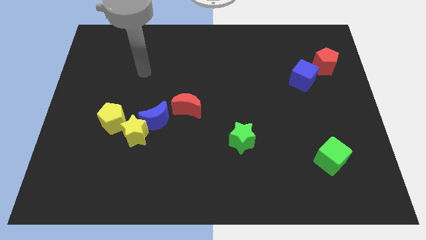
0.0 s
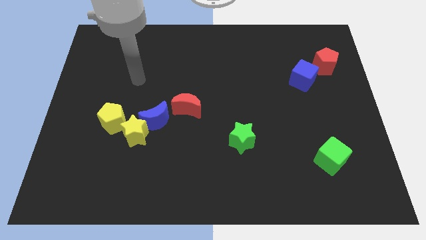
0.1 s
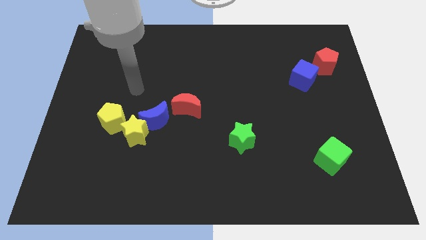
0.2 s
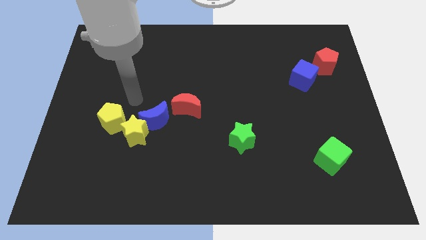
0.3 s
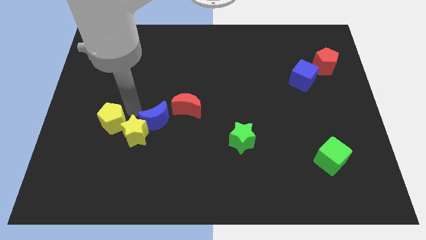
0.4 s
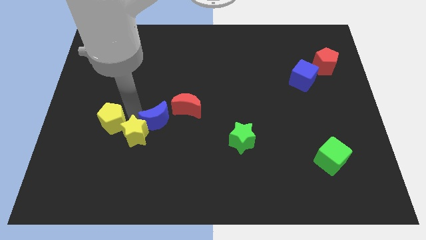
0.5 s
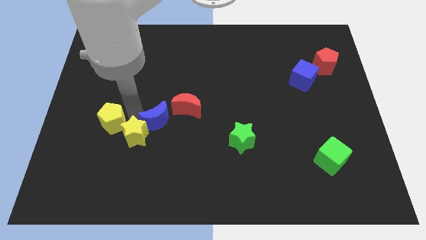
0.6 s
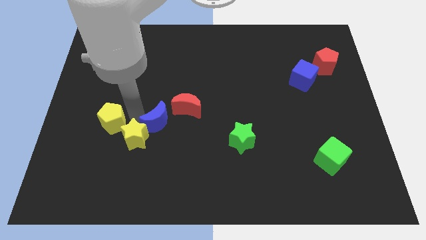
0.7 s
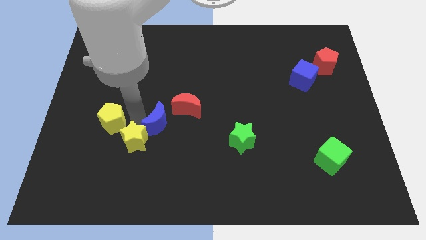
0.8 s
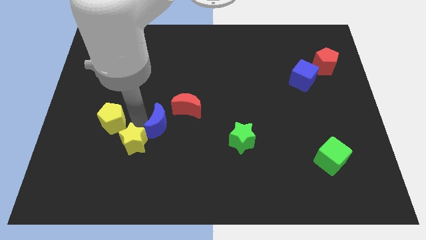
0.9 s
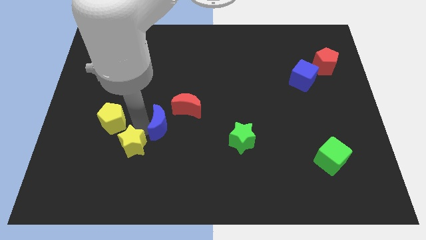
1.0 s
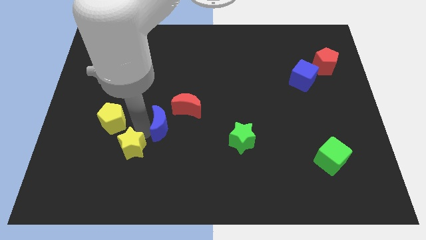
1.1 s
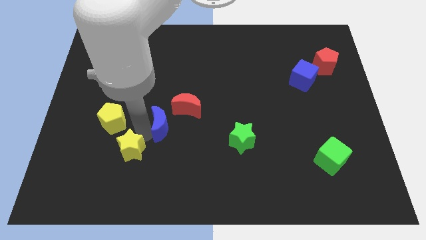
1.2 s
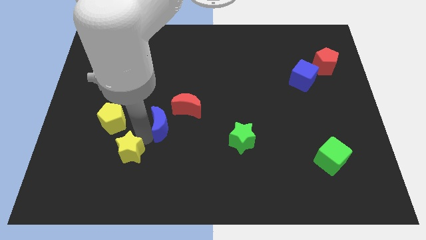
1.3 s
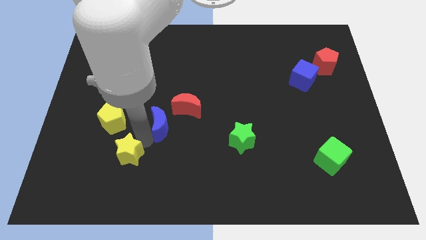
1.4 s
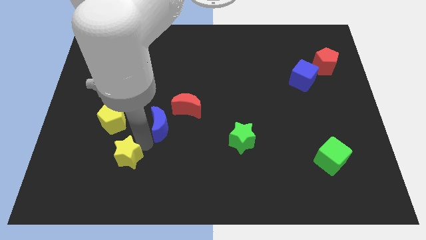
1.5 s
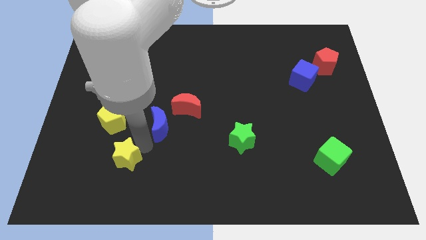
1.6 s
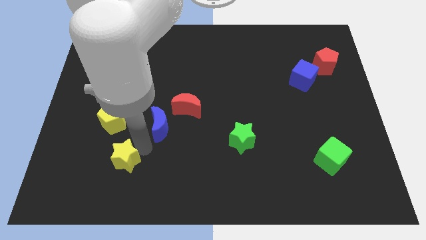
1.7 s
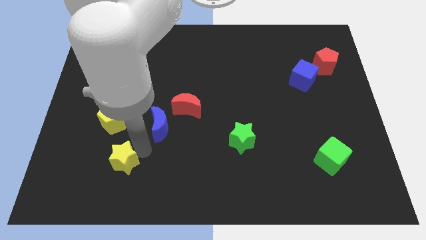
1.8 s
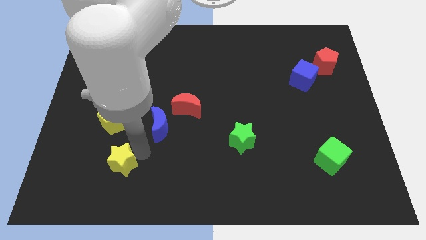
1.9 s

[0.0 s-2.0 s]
move the yellow star away from the blue moon and yellow pentagon

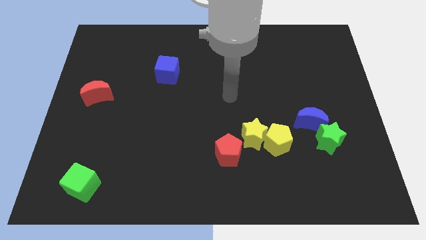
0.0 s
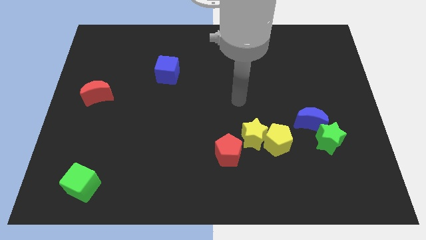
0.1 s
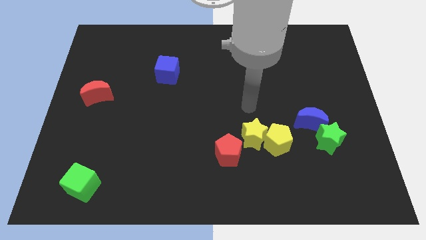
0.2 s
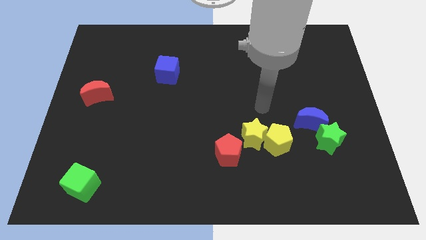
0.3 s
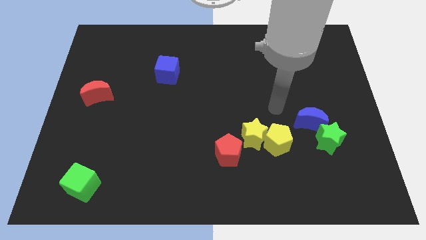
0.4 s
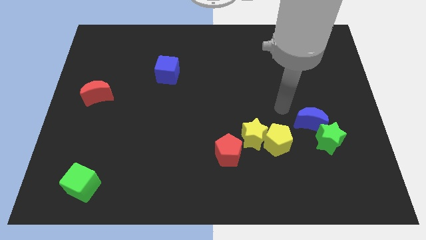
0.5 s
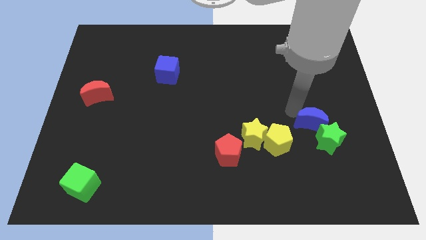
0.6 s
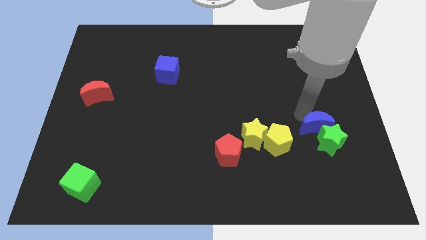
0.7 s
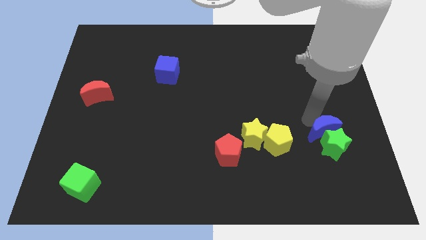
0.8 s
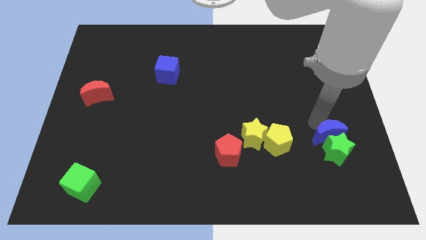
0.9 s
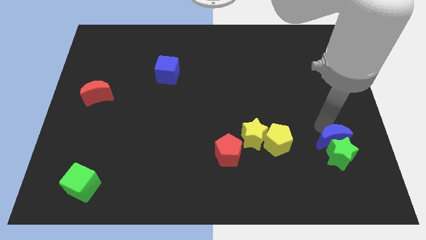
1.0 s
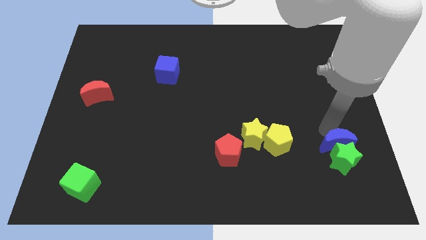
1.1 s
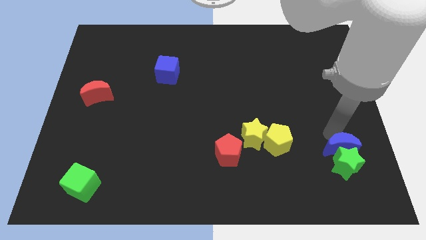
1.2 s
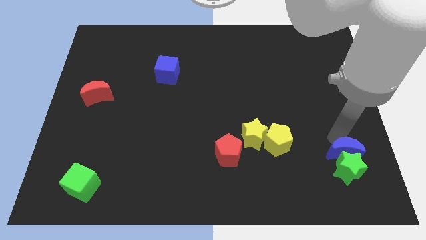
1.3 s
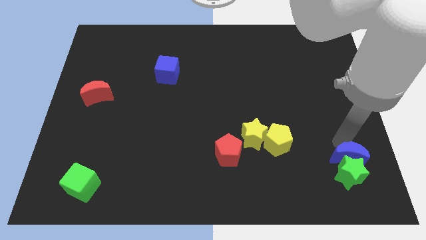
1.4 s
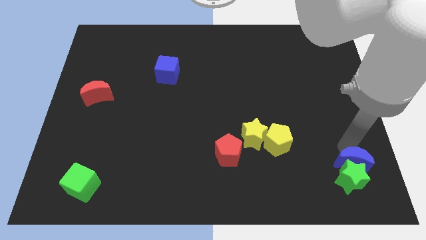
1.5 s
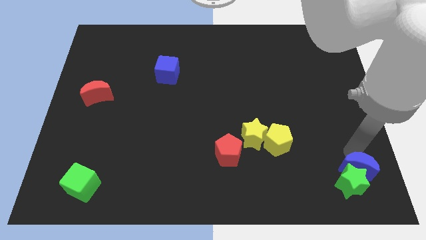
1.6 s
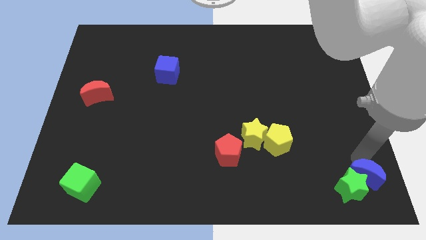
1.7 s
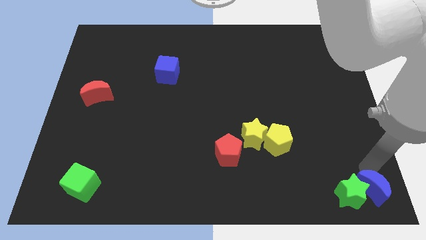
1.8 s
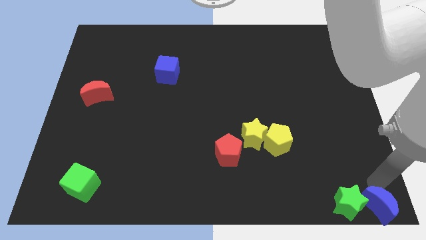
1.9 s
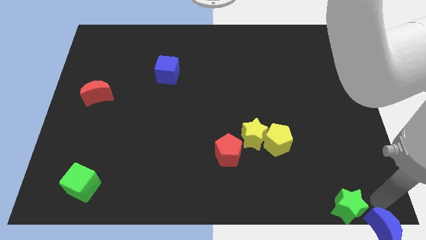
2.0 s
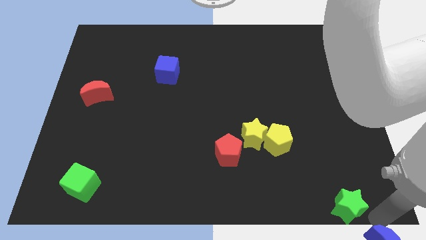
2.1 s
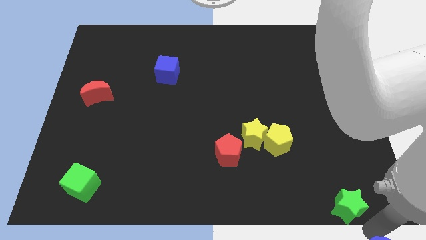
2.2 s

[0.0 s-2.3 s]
pull the green star apart from the blue moon

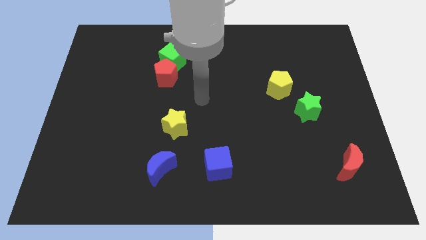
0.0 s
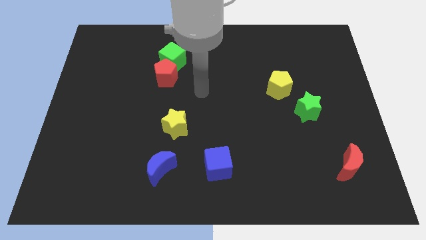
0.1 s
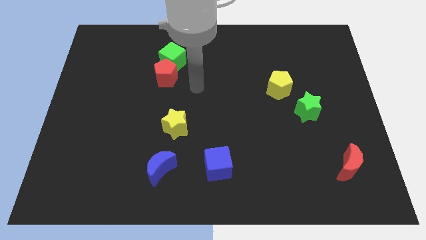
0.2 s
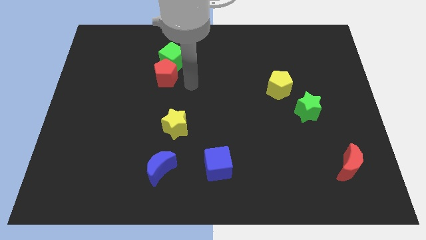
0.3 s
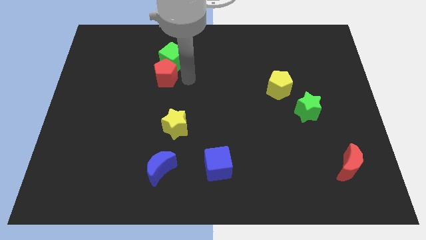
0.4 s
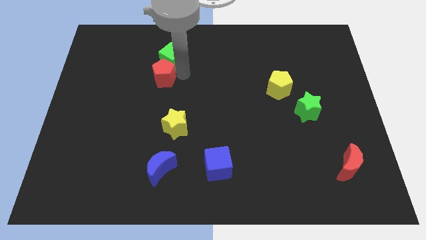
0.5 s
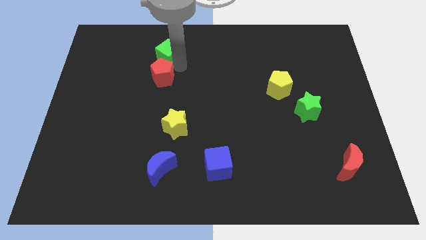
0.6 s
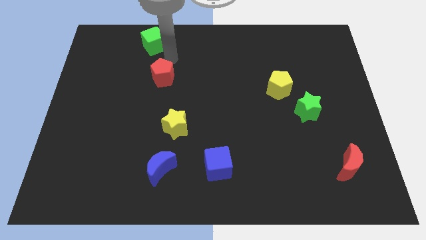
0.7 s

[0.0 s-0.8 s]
move the red pentagon away from the green cube

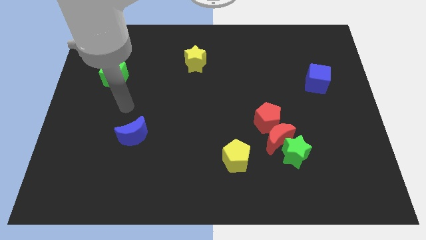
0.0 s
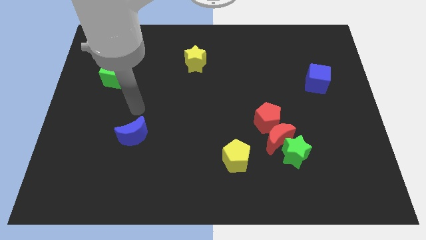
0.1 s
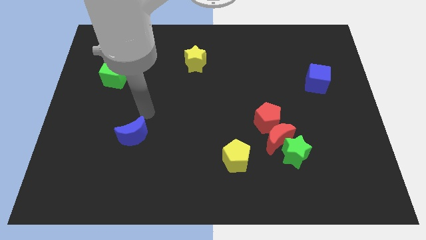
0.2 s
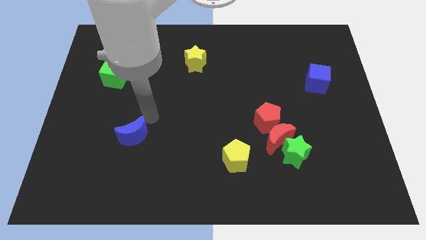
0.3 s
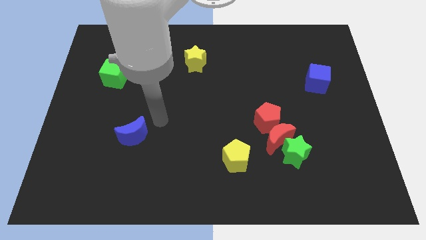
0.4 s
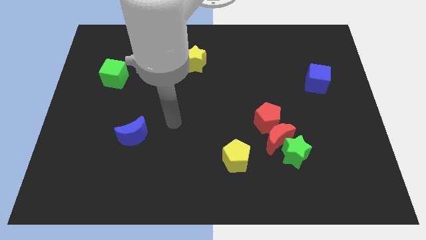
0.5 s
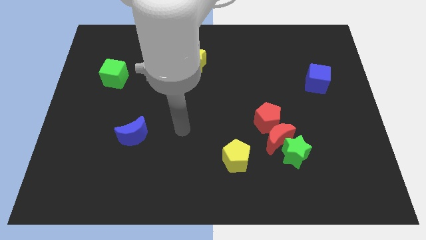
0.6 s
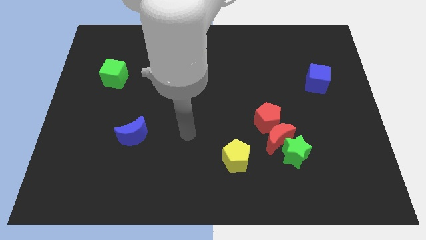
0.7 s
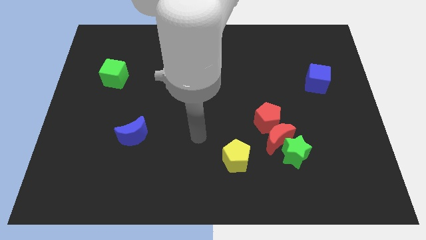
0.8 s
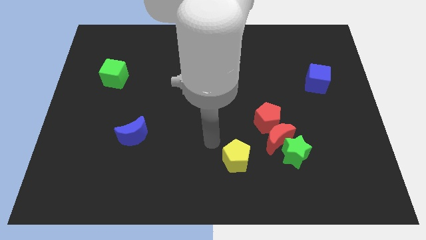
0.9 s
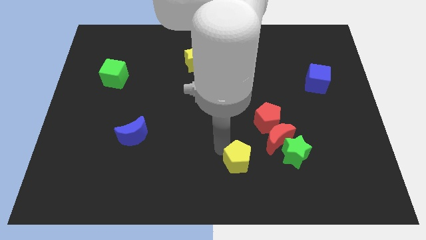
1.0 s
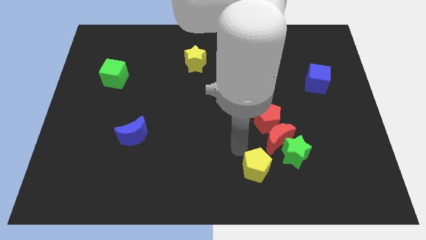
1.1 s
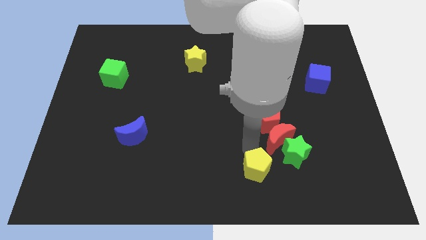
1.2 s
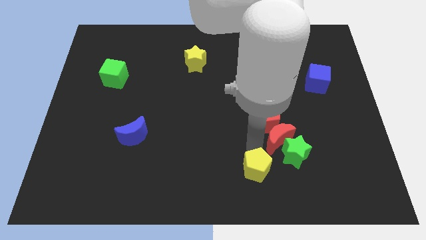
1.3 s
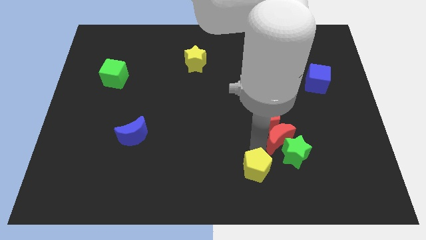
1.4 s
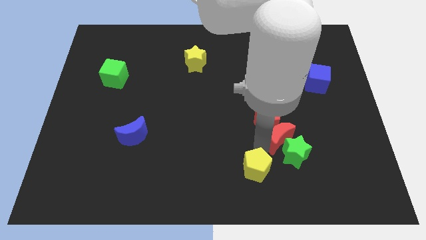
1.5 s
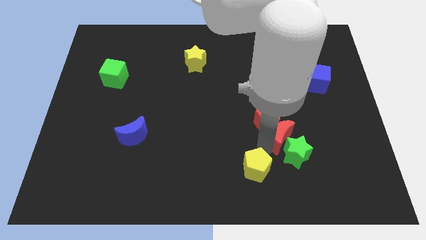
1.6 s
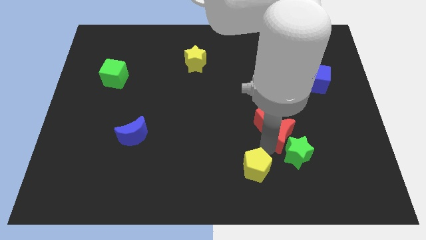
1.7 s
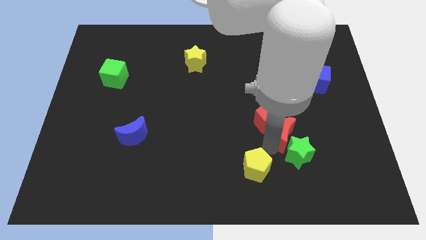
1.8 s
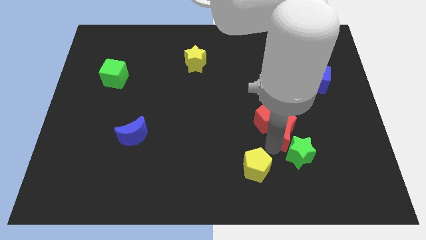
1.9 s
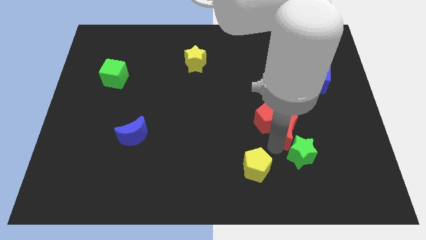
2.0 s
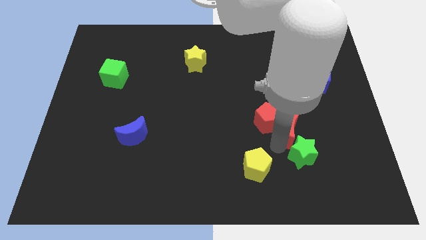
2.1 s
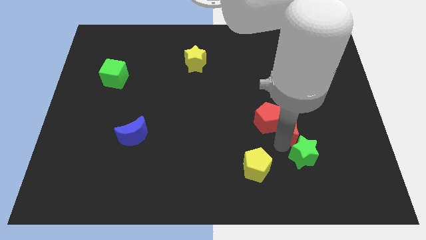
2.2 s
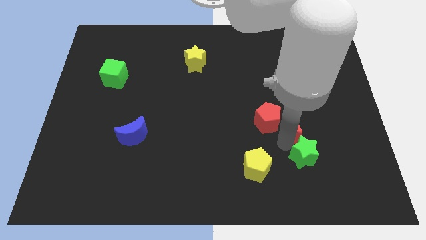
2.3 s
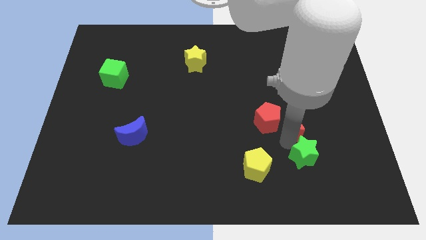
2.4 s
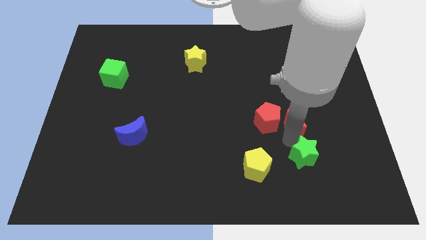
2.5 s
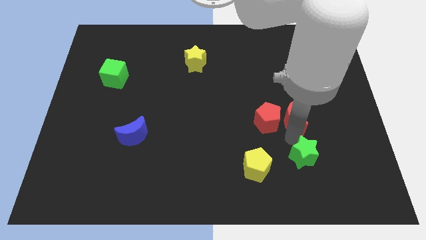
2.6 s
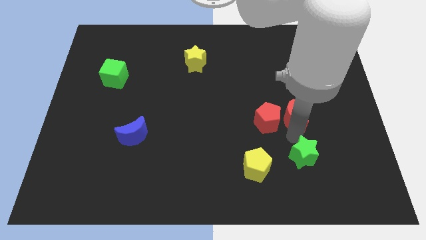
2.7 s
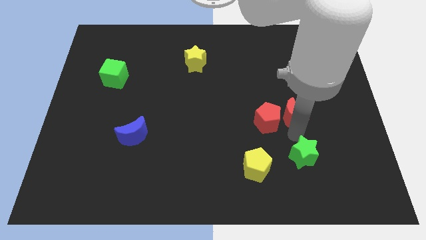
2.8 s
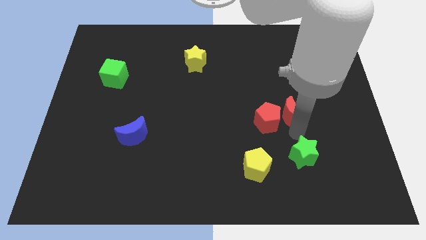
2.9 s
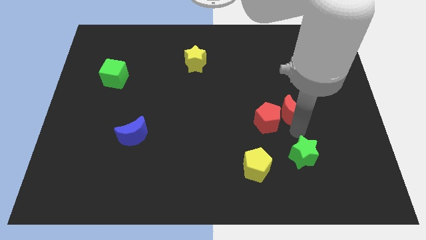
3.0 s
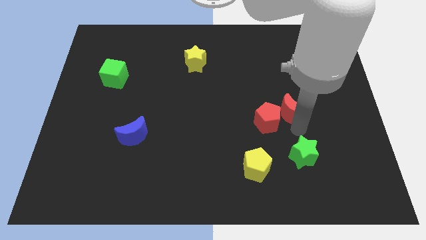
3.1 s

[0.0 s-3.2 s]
move the red moon away from the group

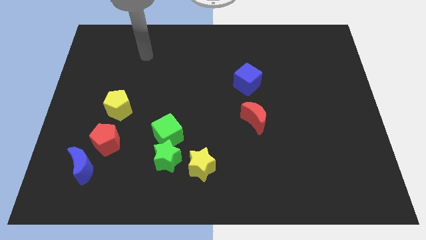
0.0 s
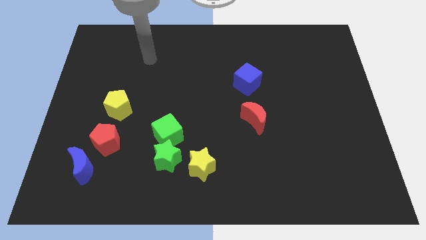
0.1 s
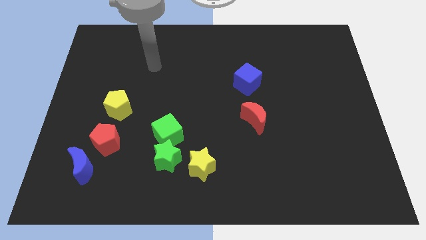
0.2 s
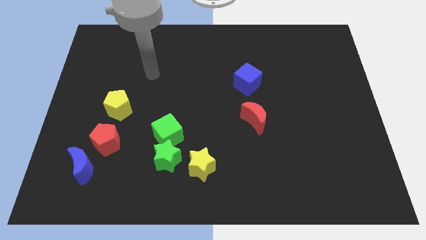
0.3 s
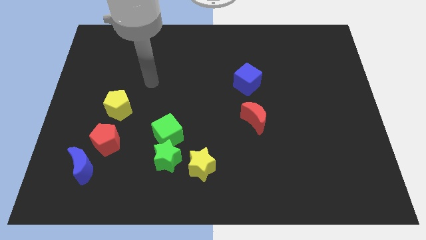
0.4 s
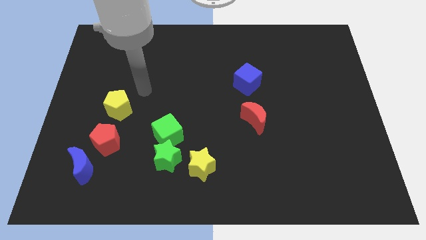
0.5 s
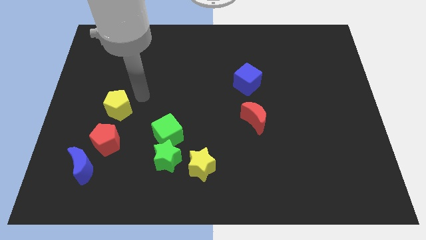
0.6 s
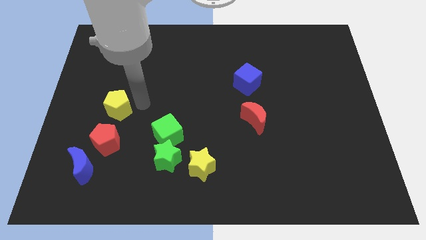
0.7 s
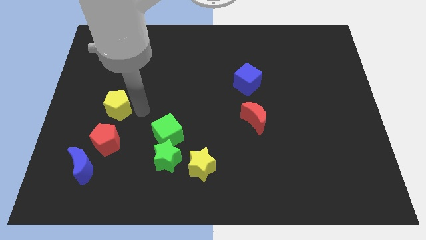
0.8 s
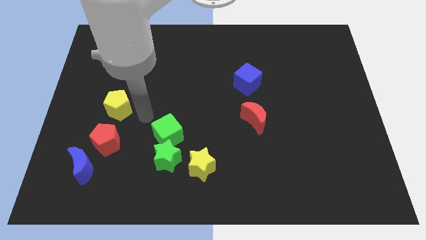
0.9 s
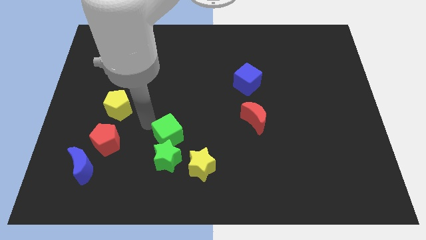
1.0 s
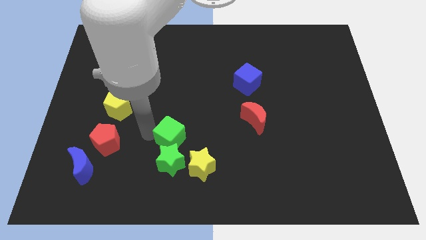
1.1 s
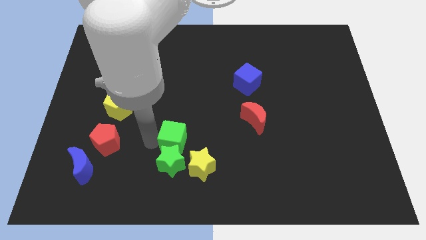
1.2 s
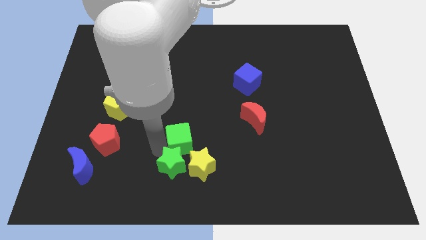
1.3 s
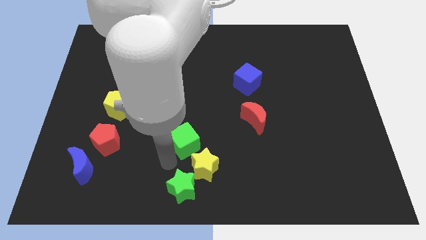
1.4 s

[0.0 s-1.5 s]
move the green cube away from the green star
